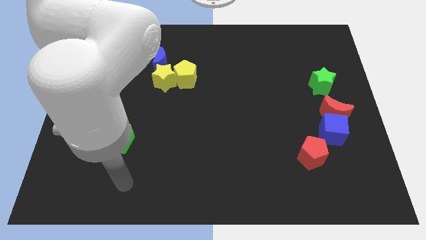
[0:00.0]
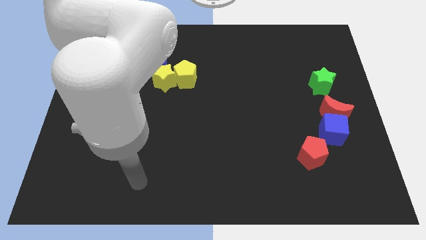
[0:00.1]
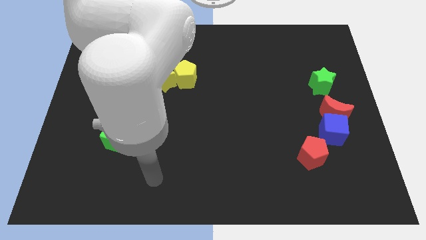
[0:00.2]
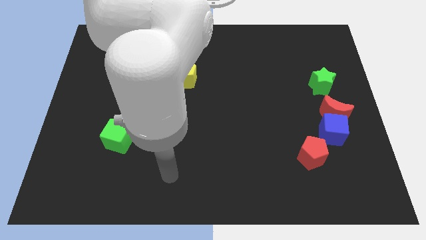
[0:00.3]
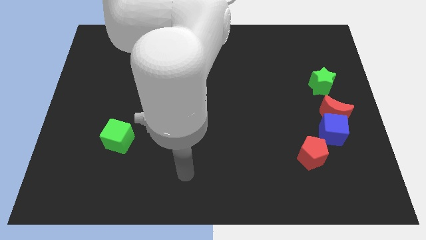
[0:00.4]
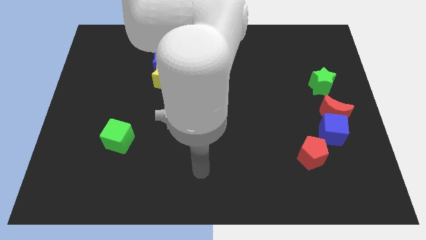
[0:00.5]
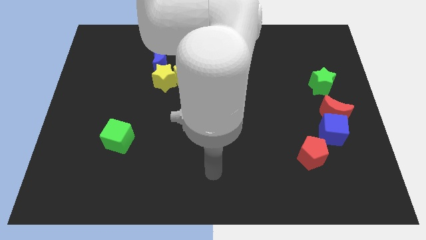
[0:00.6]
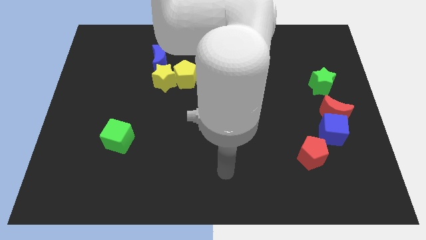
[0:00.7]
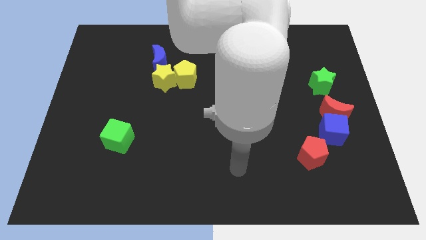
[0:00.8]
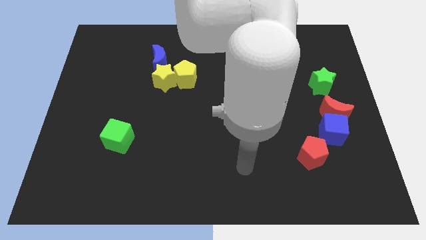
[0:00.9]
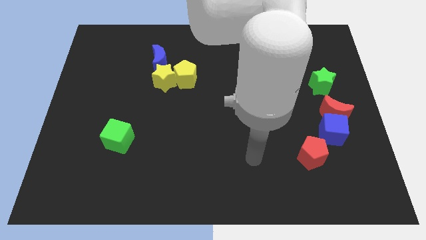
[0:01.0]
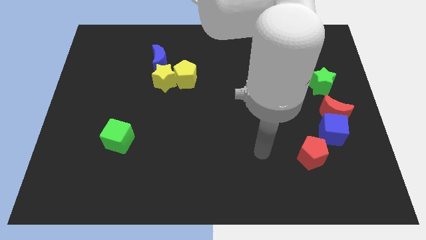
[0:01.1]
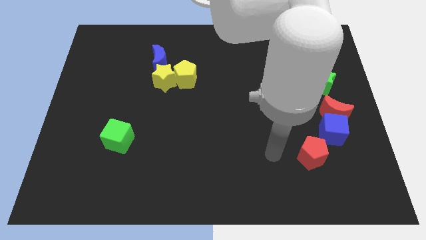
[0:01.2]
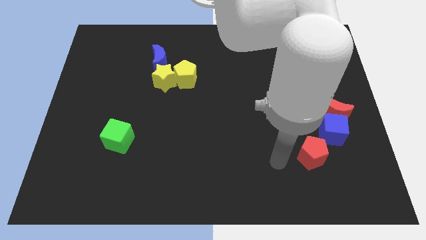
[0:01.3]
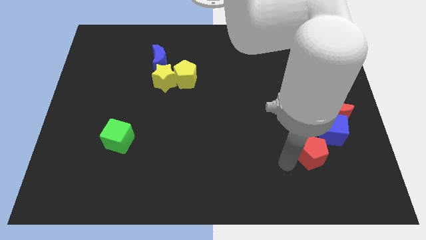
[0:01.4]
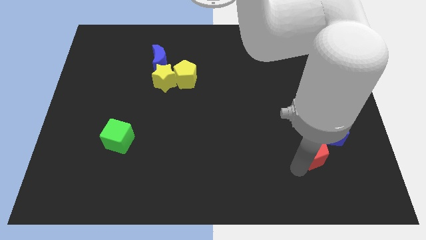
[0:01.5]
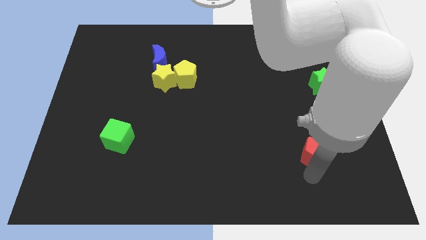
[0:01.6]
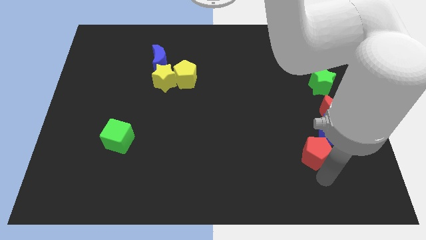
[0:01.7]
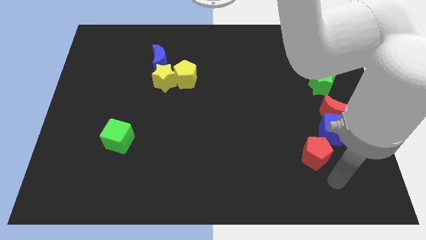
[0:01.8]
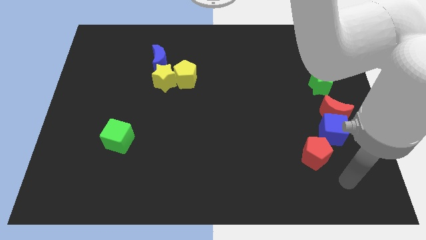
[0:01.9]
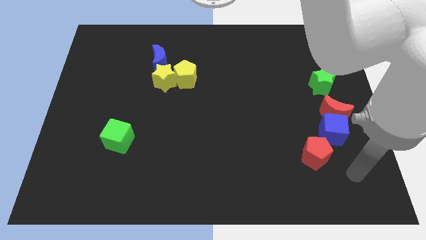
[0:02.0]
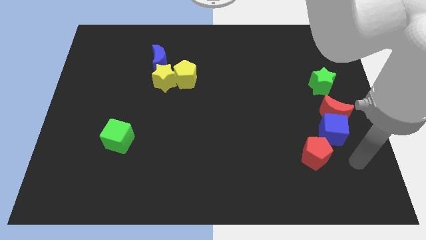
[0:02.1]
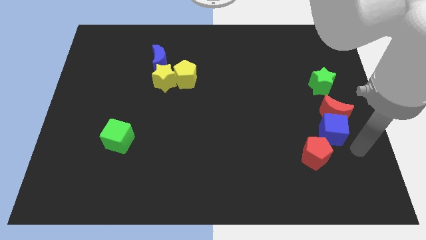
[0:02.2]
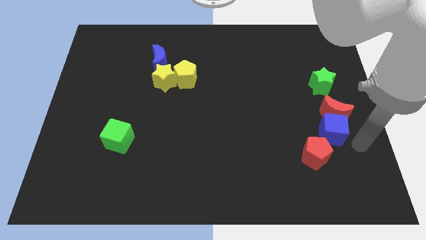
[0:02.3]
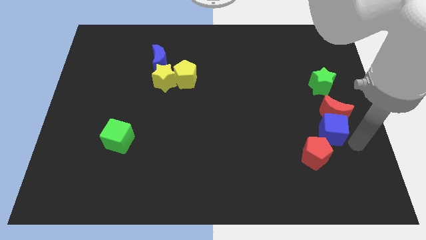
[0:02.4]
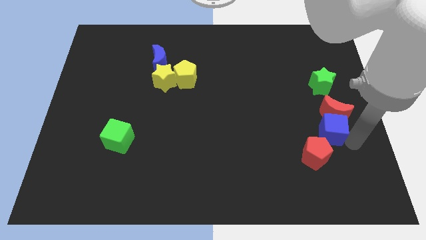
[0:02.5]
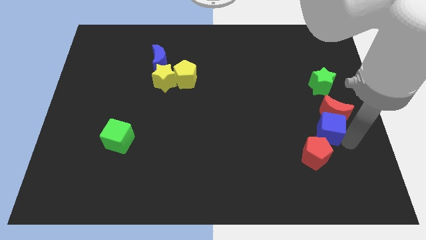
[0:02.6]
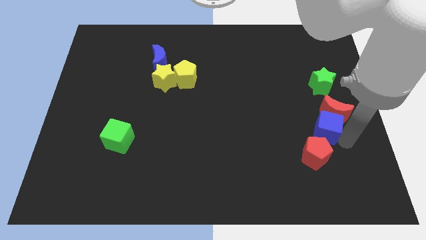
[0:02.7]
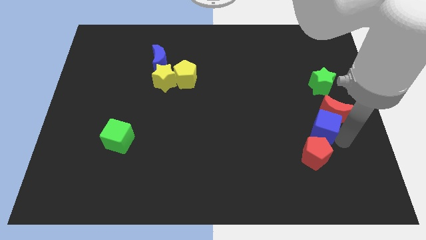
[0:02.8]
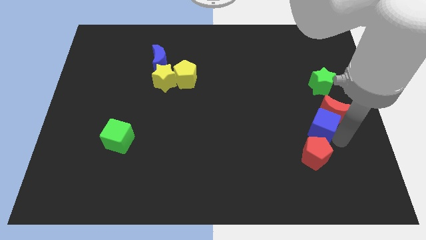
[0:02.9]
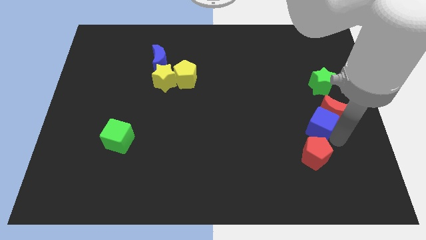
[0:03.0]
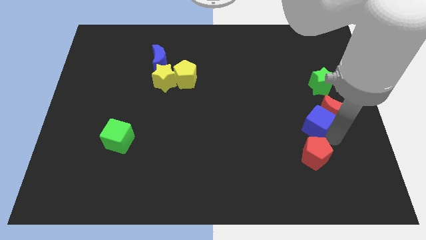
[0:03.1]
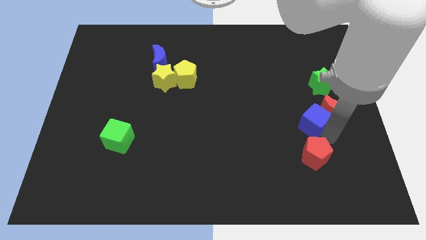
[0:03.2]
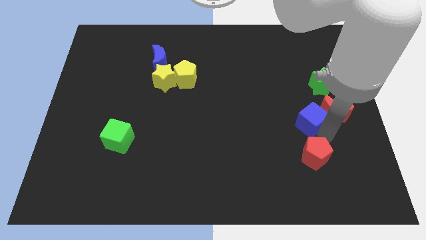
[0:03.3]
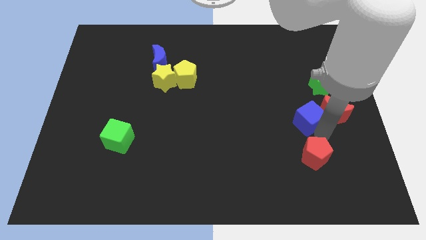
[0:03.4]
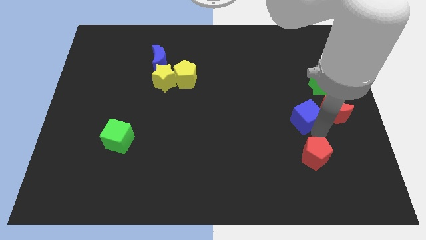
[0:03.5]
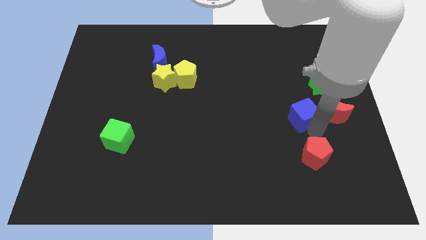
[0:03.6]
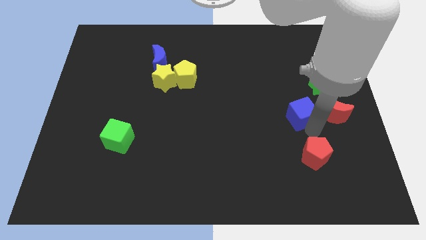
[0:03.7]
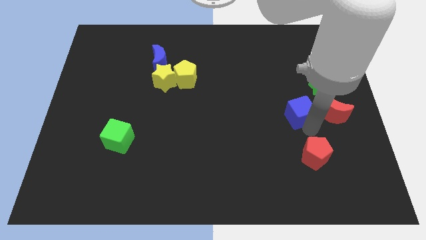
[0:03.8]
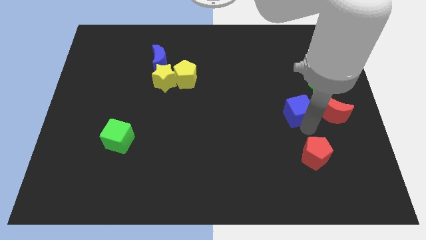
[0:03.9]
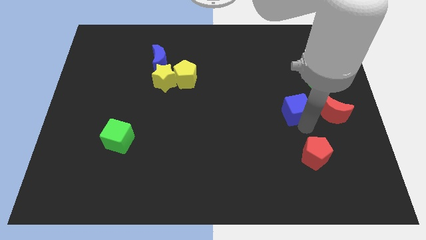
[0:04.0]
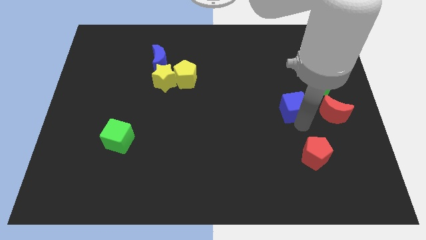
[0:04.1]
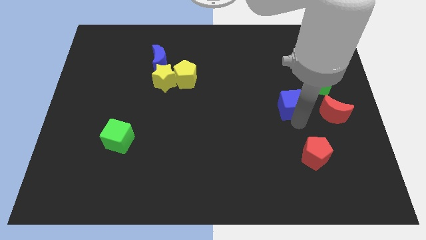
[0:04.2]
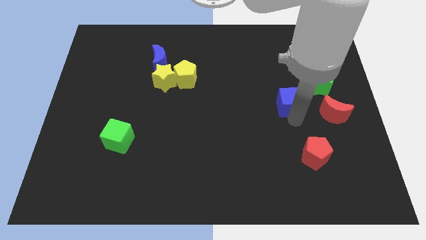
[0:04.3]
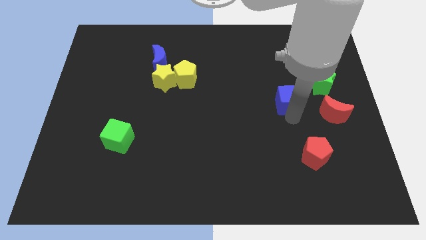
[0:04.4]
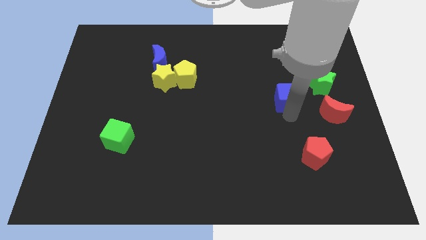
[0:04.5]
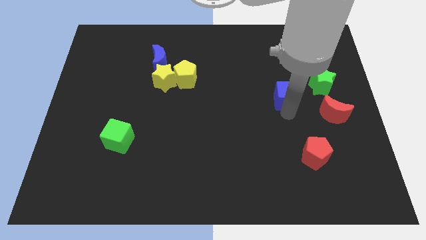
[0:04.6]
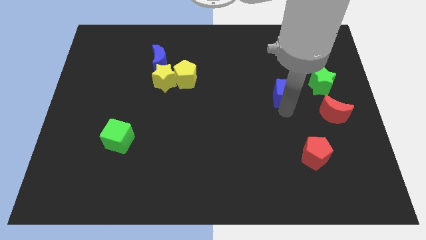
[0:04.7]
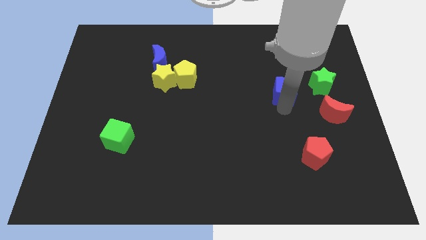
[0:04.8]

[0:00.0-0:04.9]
push the blue cube somewhat up

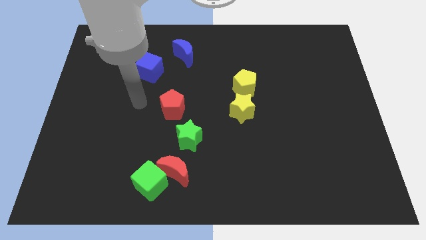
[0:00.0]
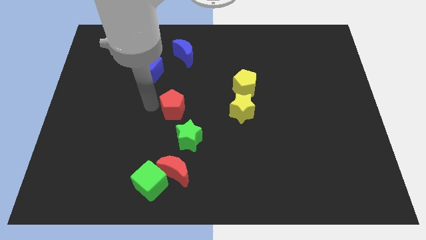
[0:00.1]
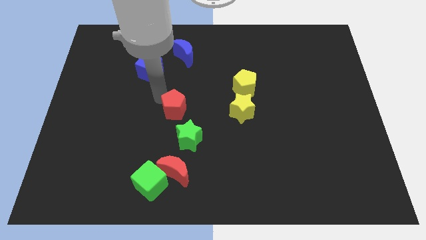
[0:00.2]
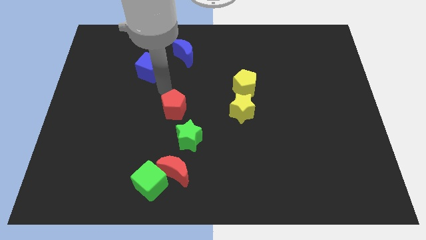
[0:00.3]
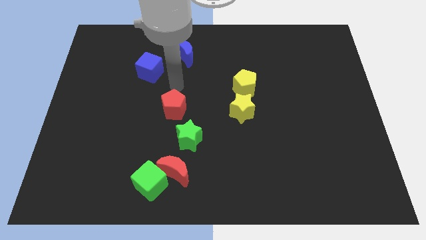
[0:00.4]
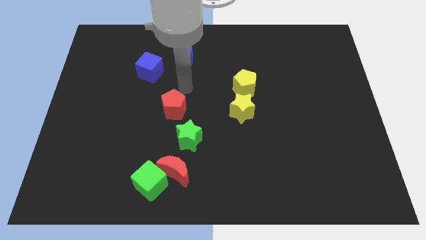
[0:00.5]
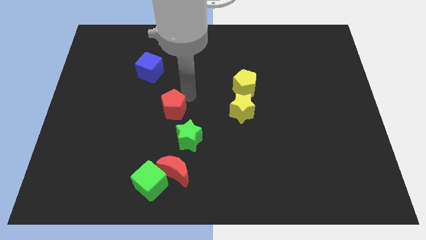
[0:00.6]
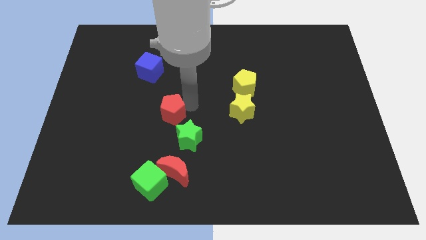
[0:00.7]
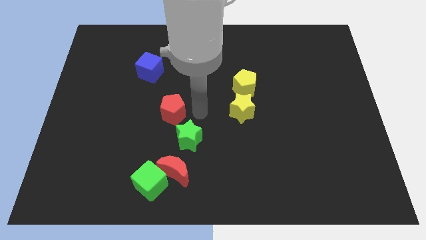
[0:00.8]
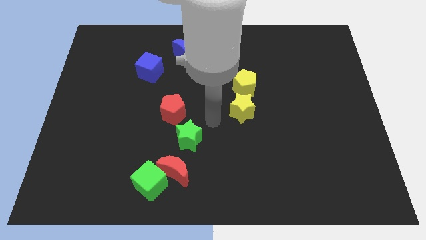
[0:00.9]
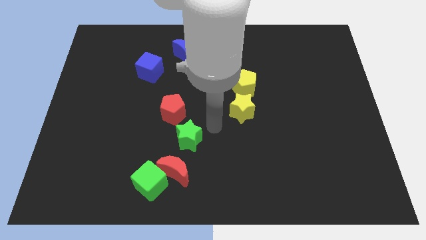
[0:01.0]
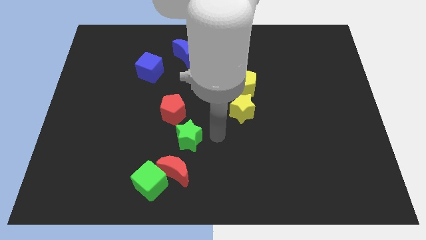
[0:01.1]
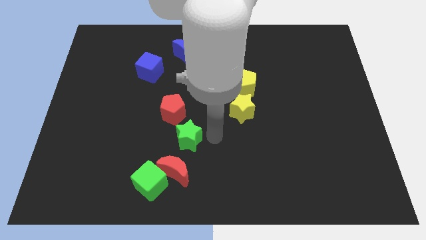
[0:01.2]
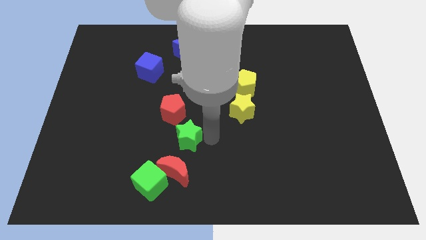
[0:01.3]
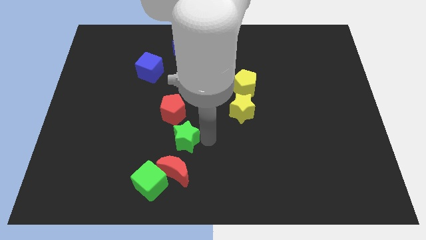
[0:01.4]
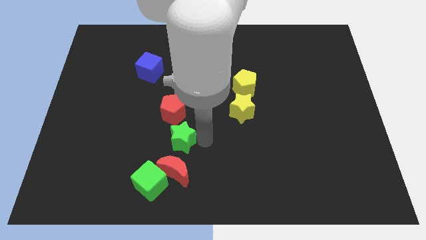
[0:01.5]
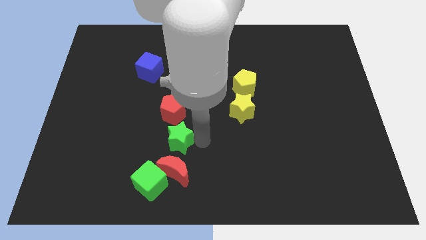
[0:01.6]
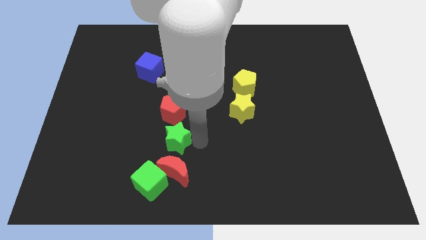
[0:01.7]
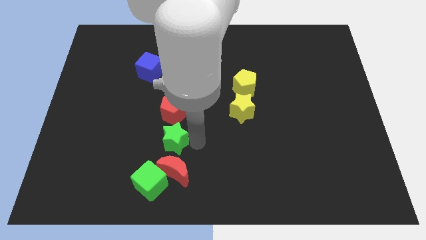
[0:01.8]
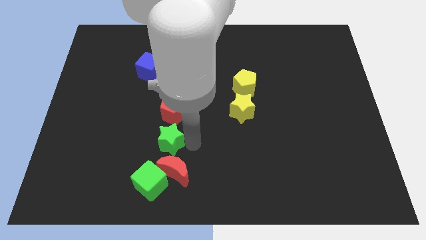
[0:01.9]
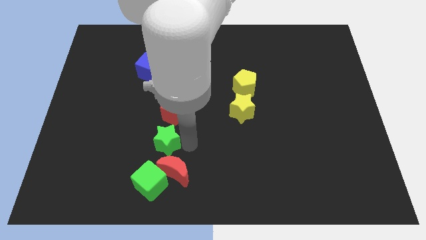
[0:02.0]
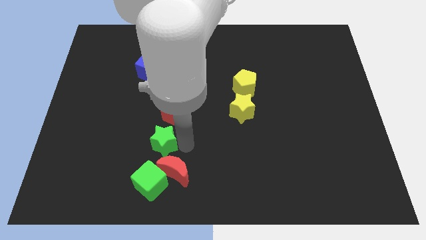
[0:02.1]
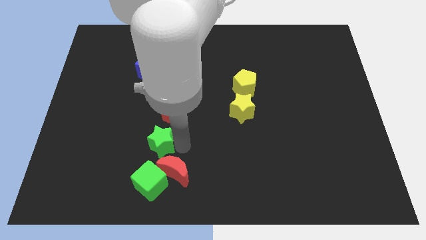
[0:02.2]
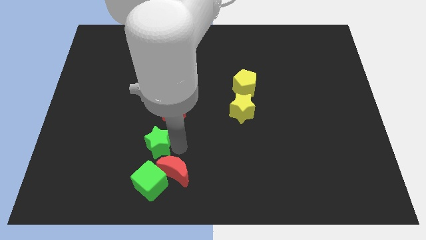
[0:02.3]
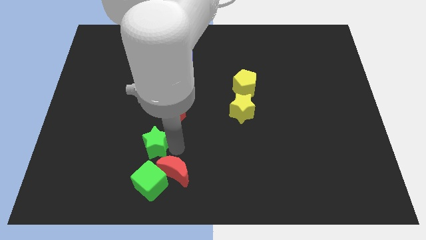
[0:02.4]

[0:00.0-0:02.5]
slide the green star a bit to the left

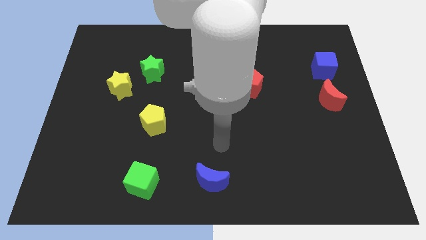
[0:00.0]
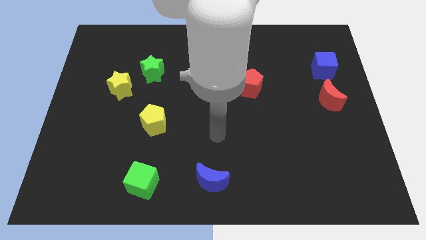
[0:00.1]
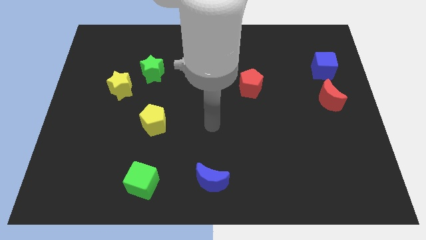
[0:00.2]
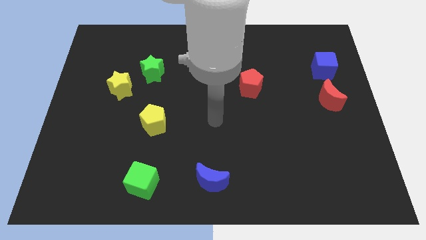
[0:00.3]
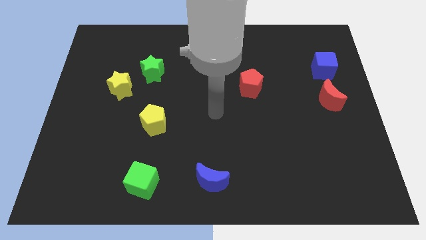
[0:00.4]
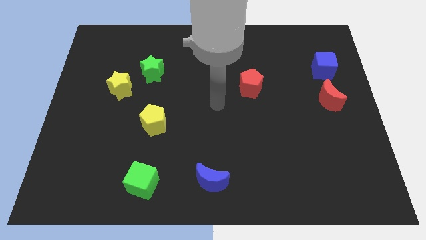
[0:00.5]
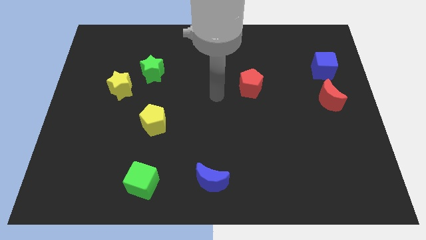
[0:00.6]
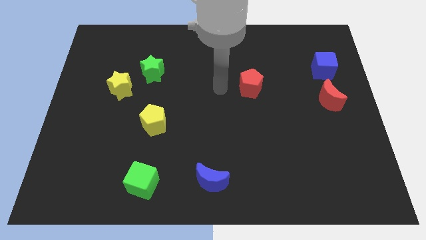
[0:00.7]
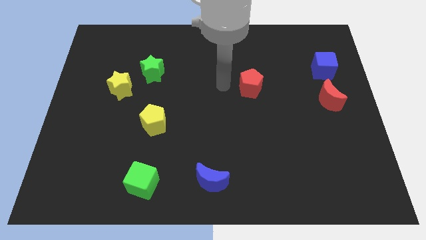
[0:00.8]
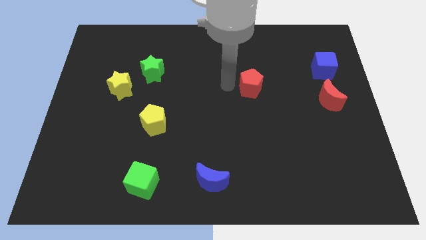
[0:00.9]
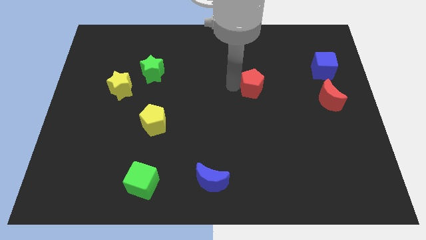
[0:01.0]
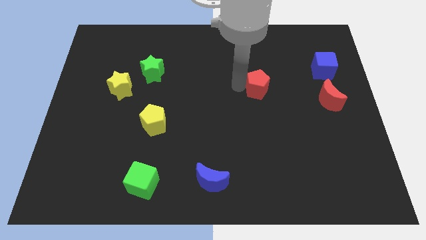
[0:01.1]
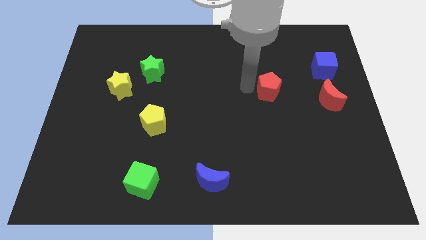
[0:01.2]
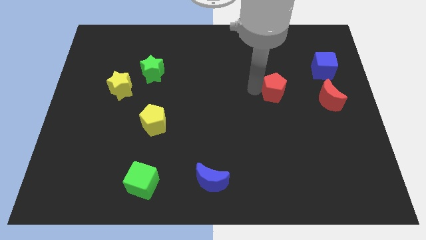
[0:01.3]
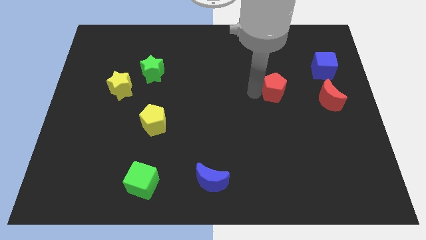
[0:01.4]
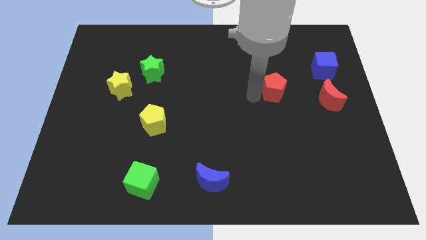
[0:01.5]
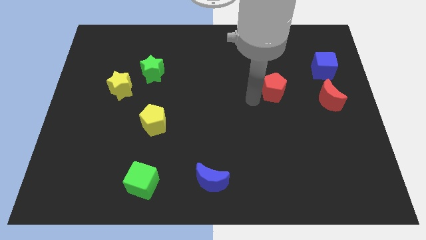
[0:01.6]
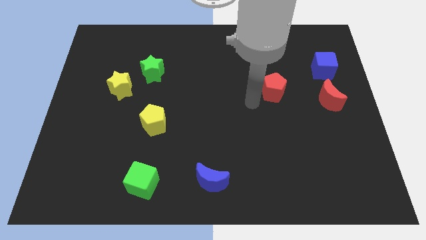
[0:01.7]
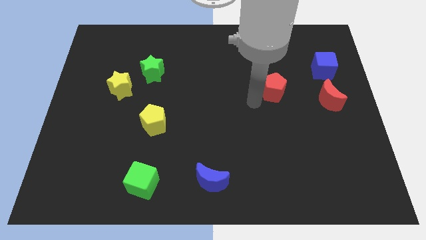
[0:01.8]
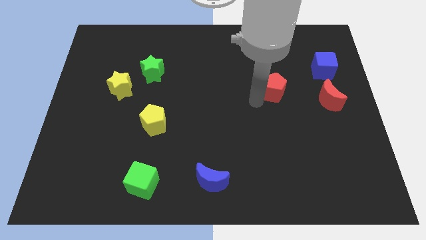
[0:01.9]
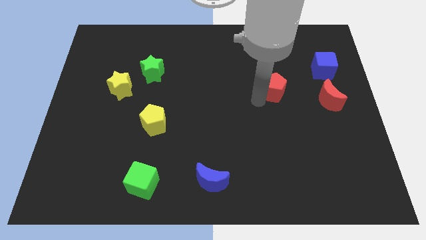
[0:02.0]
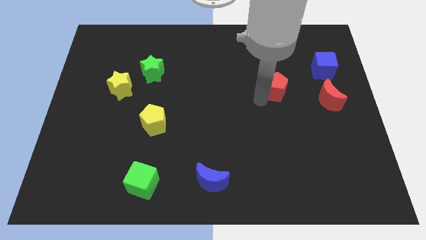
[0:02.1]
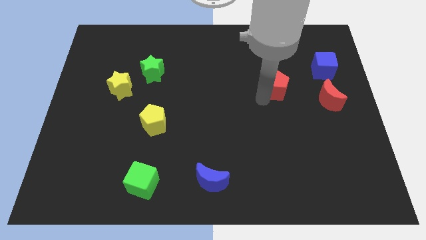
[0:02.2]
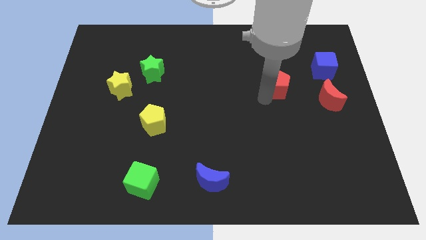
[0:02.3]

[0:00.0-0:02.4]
slightly slide the red pentagon right
